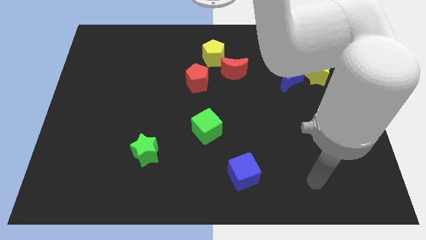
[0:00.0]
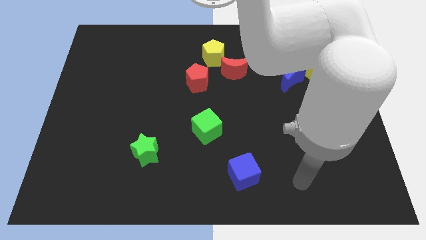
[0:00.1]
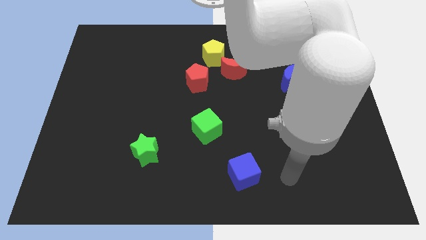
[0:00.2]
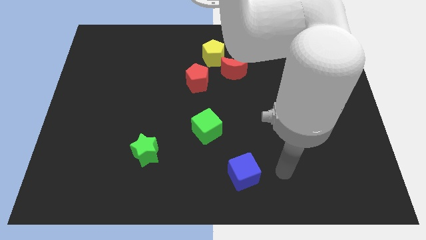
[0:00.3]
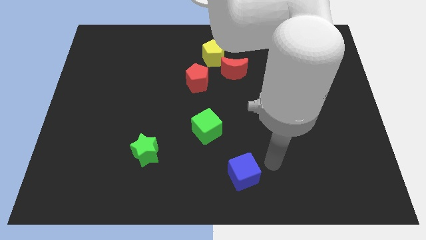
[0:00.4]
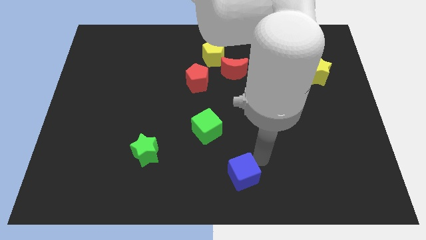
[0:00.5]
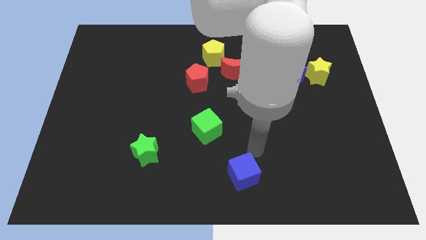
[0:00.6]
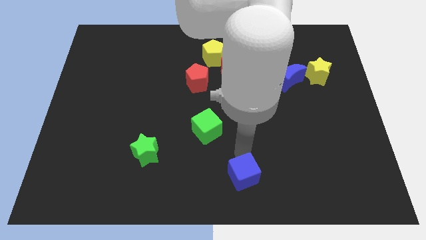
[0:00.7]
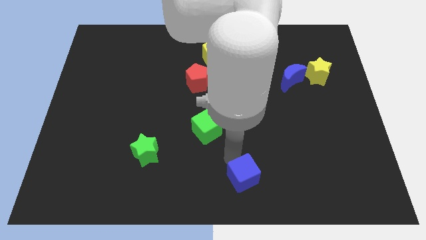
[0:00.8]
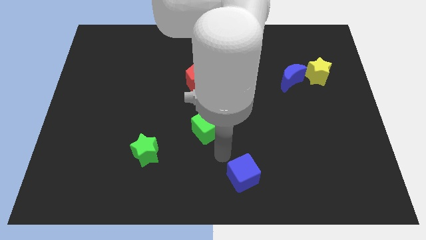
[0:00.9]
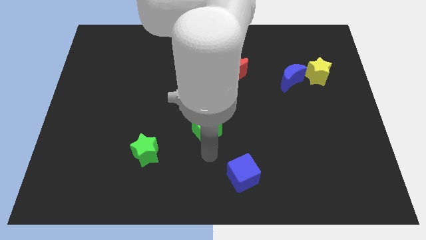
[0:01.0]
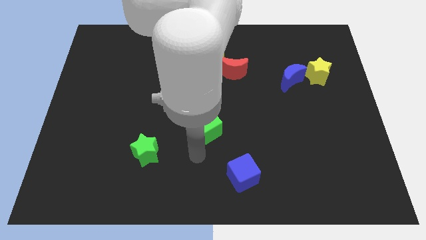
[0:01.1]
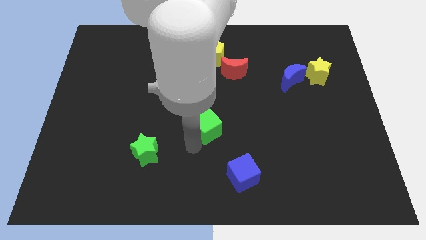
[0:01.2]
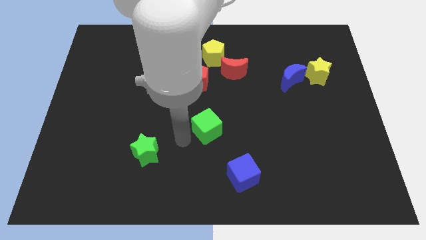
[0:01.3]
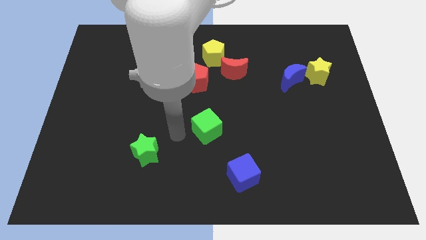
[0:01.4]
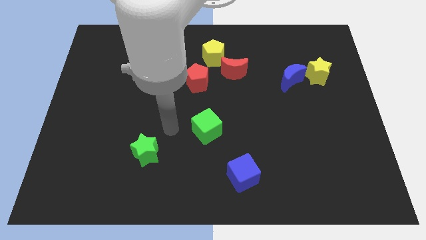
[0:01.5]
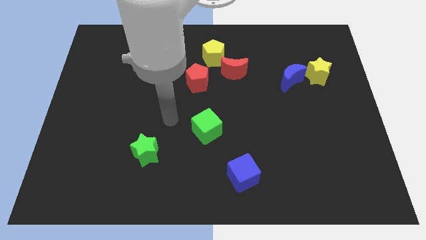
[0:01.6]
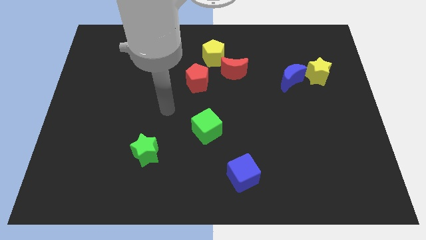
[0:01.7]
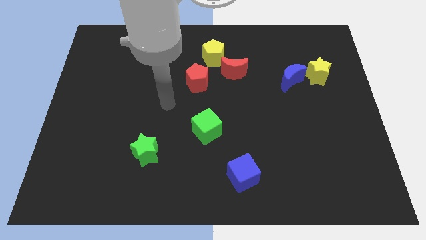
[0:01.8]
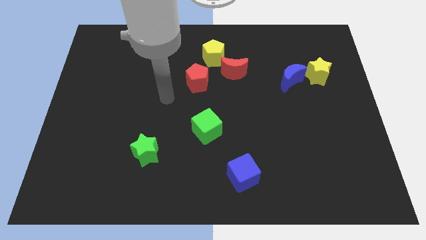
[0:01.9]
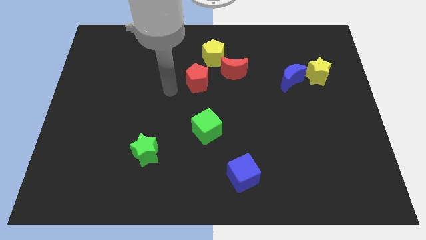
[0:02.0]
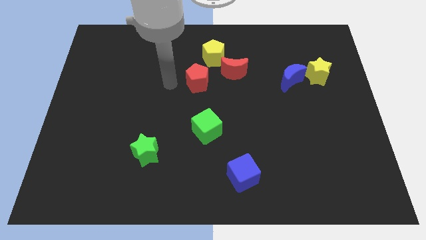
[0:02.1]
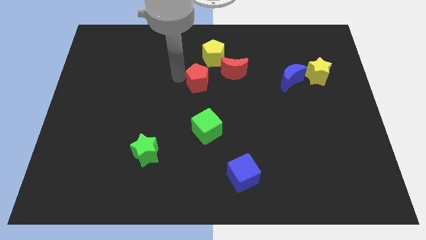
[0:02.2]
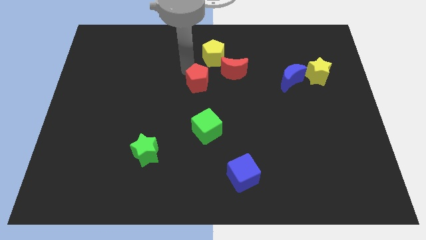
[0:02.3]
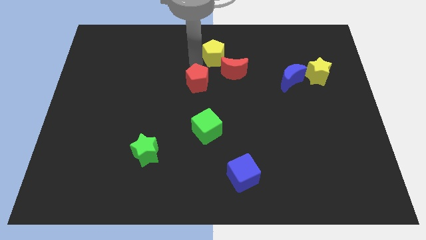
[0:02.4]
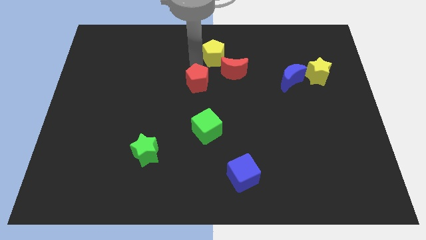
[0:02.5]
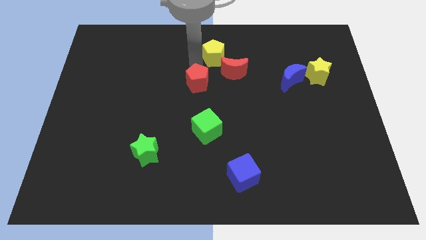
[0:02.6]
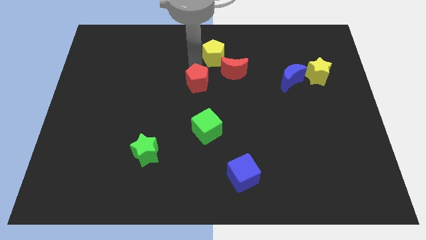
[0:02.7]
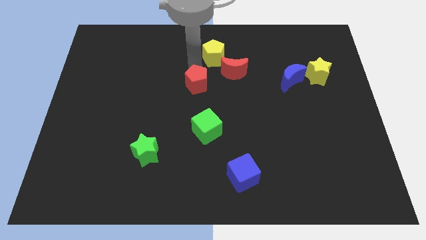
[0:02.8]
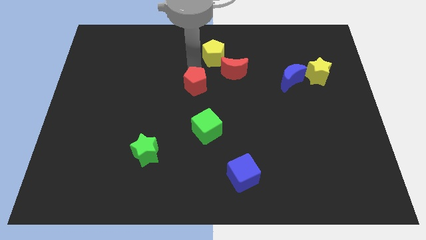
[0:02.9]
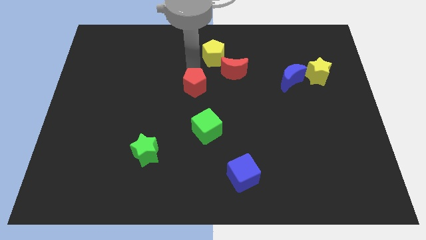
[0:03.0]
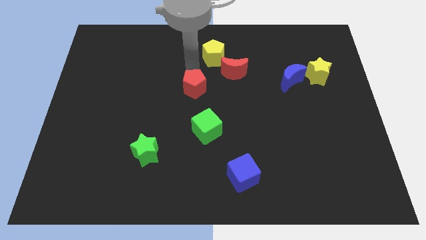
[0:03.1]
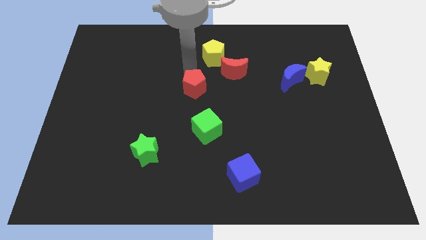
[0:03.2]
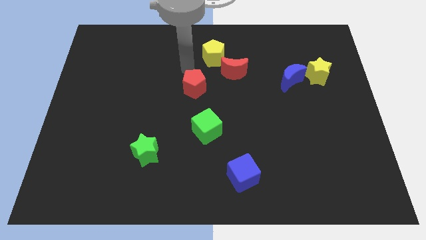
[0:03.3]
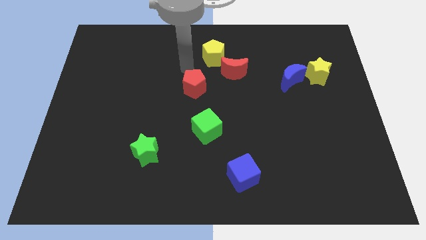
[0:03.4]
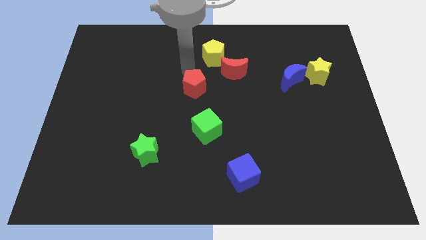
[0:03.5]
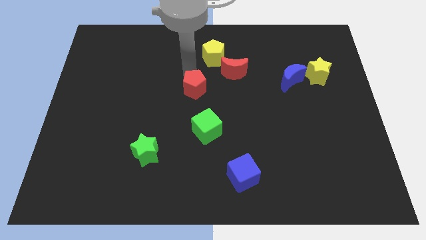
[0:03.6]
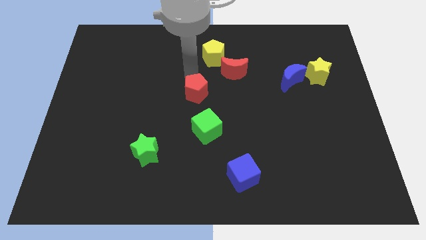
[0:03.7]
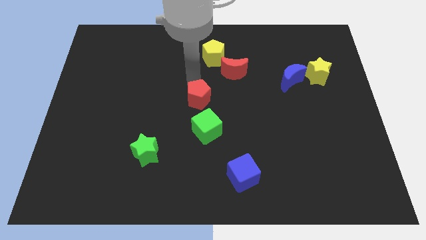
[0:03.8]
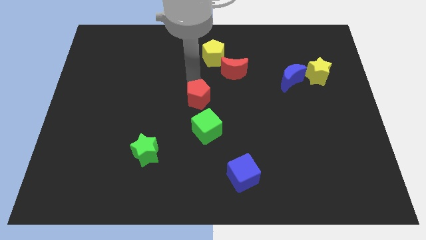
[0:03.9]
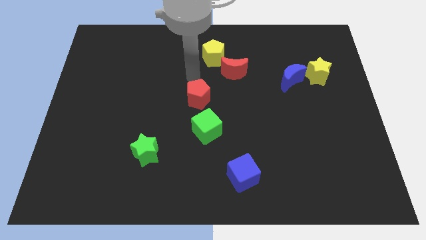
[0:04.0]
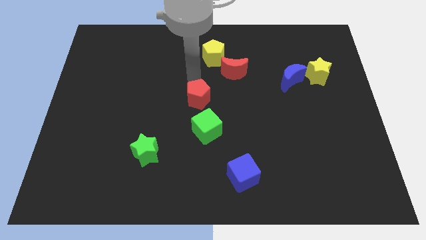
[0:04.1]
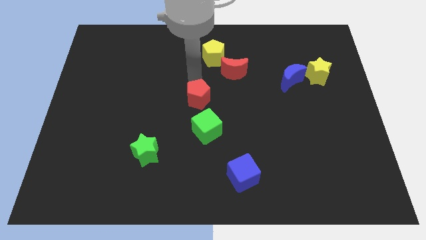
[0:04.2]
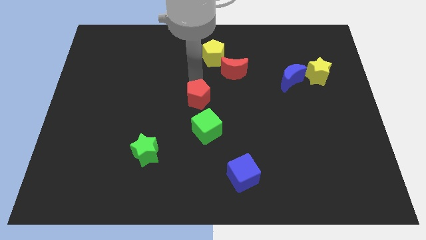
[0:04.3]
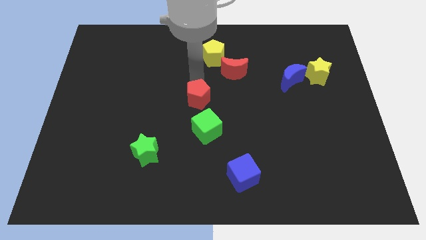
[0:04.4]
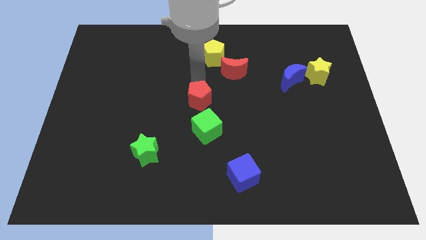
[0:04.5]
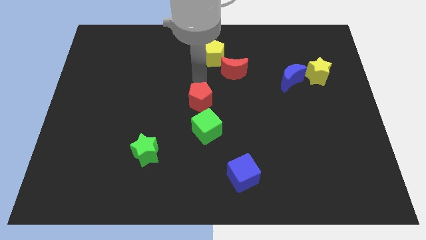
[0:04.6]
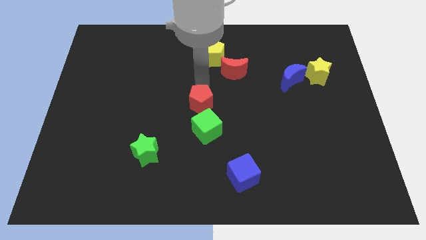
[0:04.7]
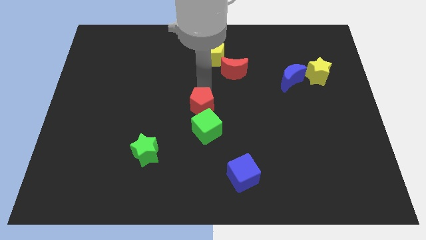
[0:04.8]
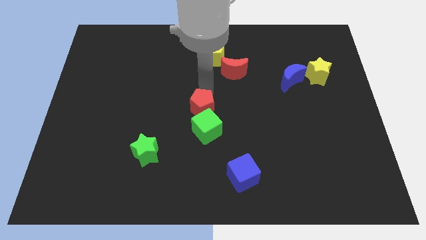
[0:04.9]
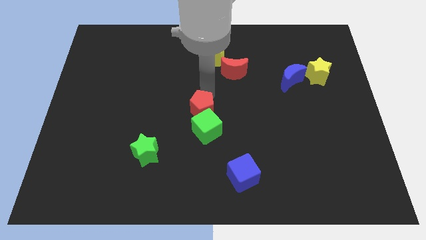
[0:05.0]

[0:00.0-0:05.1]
put the red pentagon close to the green cube

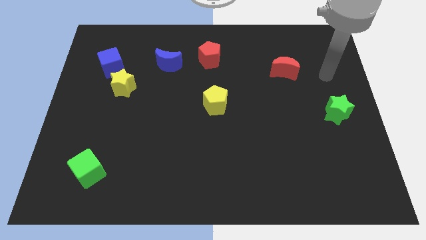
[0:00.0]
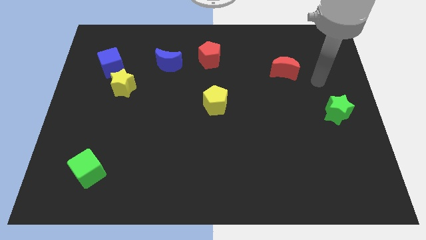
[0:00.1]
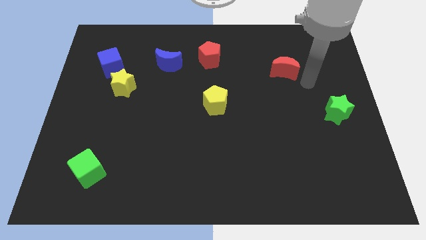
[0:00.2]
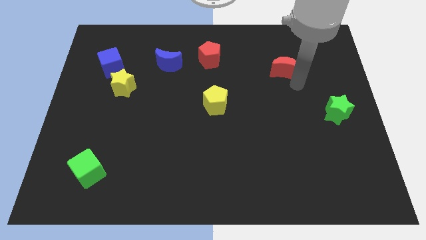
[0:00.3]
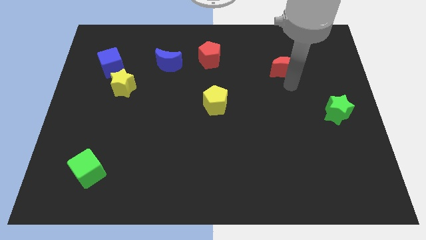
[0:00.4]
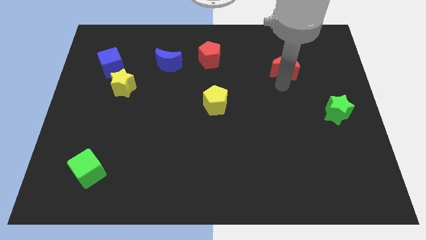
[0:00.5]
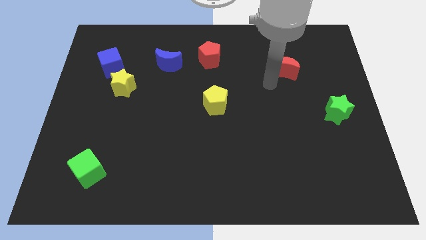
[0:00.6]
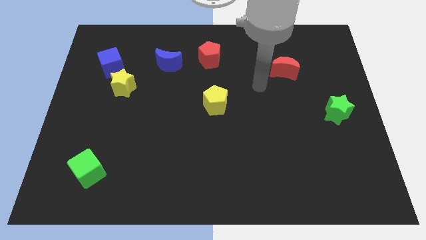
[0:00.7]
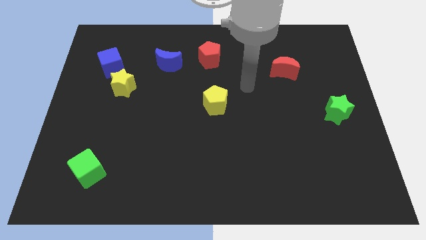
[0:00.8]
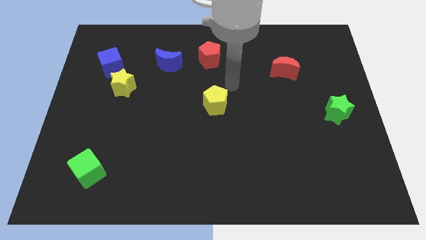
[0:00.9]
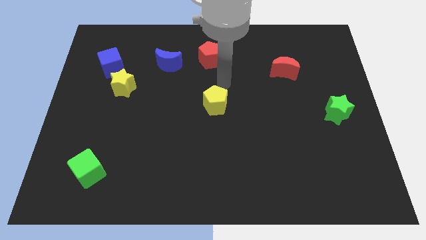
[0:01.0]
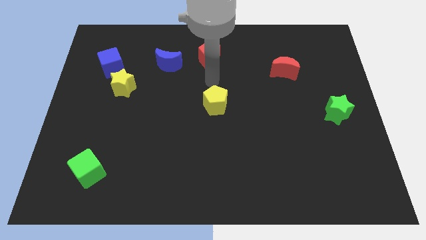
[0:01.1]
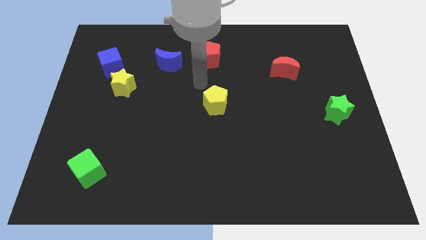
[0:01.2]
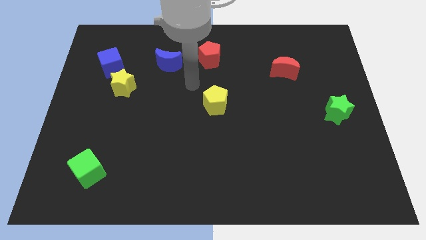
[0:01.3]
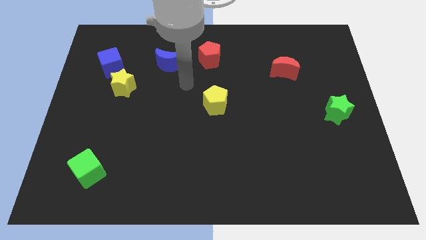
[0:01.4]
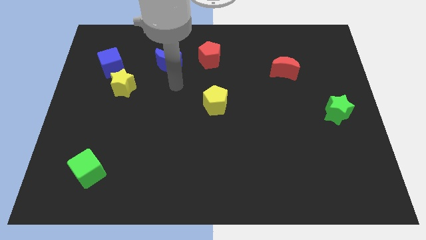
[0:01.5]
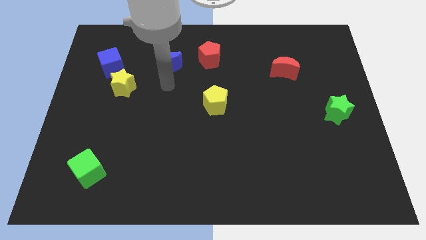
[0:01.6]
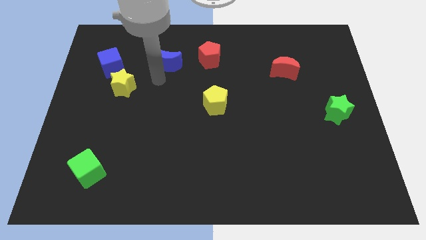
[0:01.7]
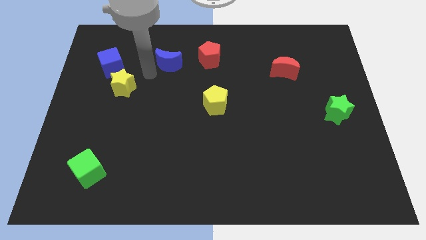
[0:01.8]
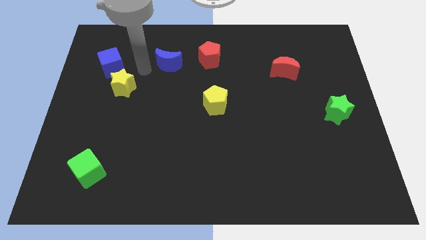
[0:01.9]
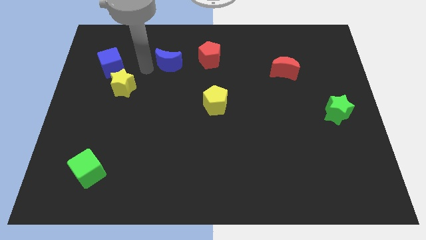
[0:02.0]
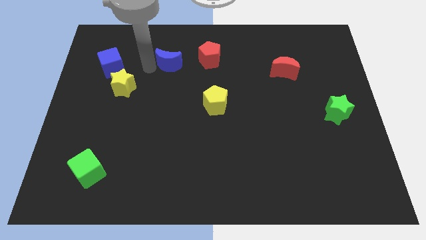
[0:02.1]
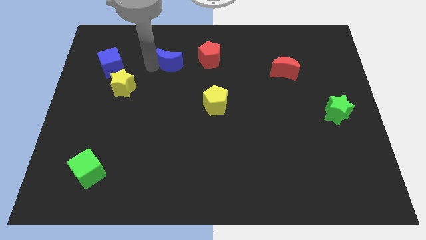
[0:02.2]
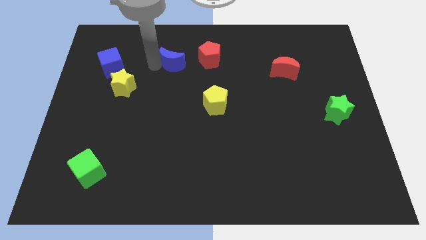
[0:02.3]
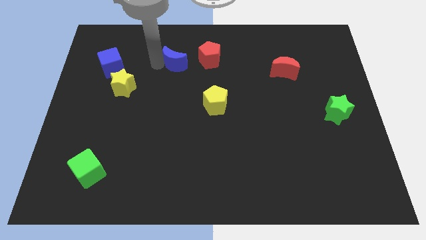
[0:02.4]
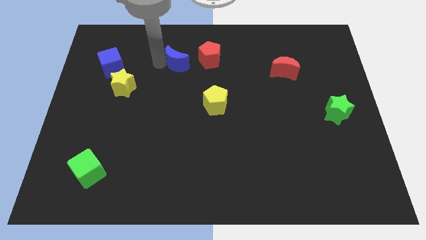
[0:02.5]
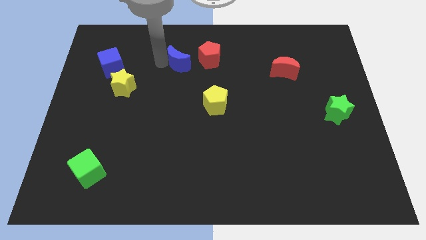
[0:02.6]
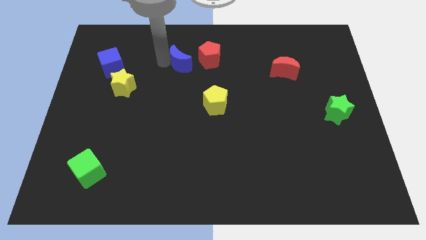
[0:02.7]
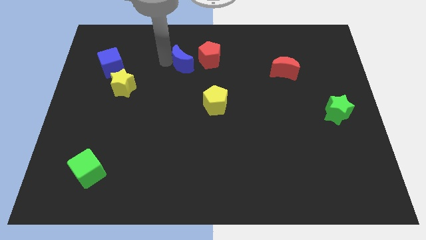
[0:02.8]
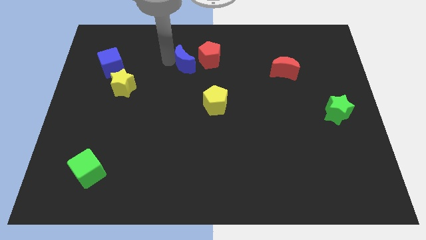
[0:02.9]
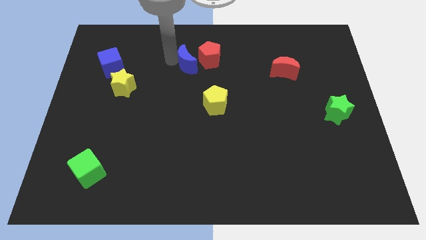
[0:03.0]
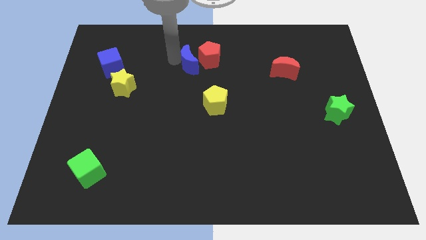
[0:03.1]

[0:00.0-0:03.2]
slide the blue moon to the red pentagon

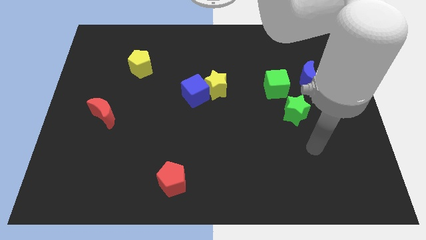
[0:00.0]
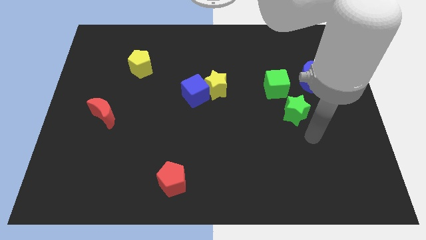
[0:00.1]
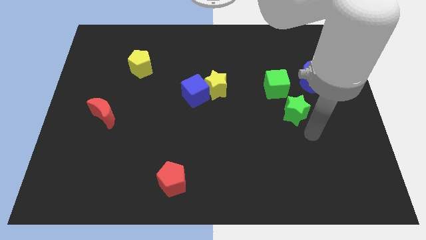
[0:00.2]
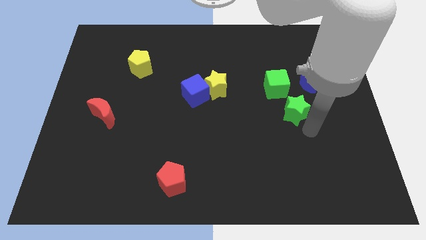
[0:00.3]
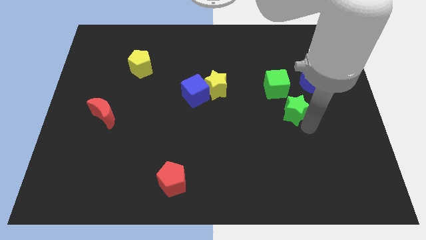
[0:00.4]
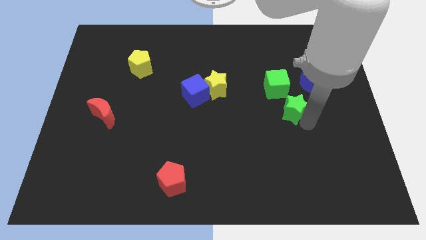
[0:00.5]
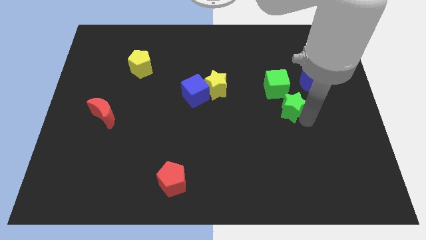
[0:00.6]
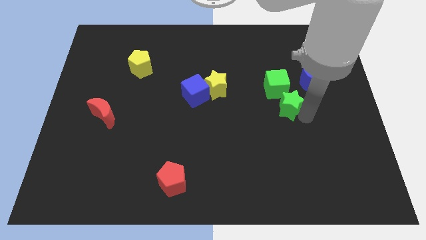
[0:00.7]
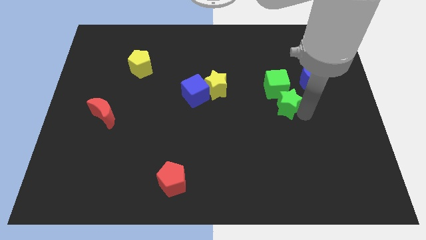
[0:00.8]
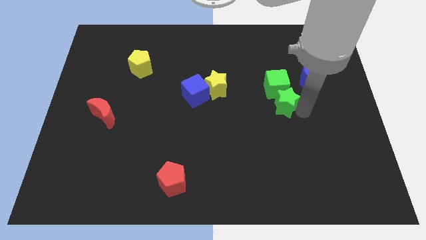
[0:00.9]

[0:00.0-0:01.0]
move the green star next to the green cube
